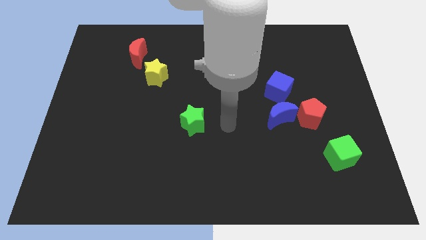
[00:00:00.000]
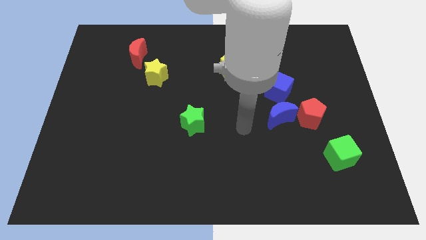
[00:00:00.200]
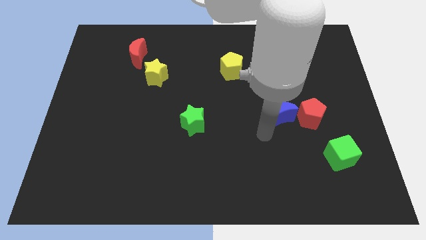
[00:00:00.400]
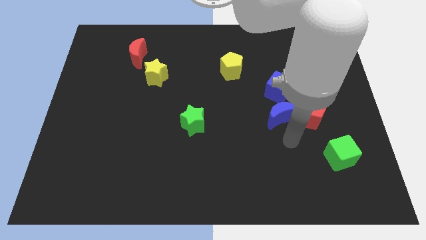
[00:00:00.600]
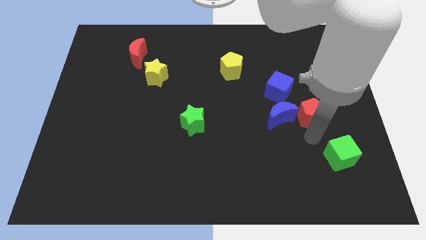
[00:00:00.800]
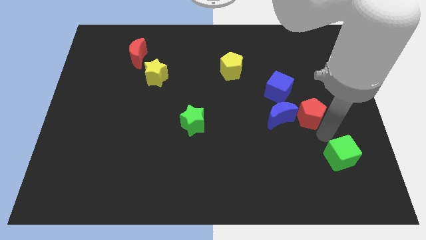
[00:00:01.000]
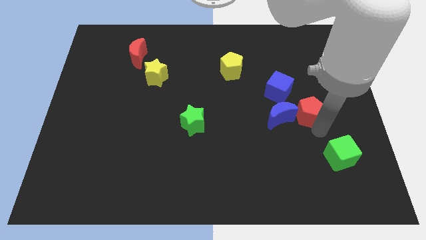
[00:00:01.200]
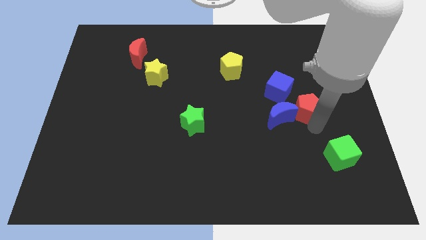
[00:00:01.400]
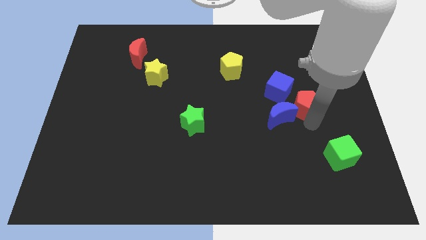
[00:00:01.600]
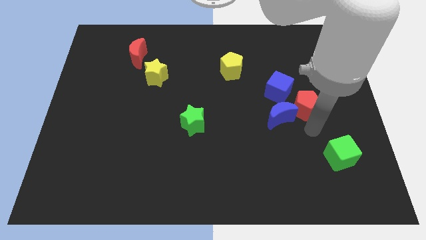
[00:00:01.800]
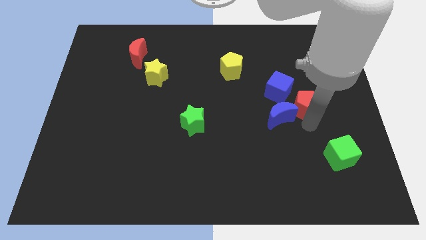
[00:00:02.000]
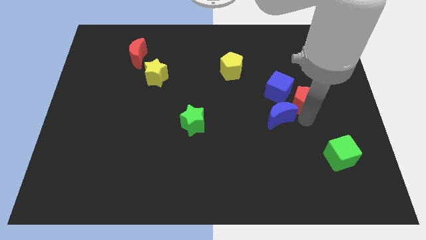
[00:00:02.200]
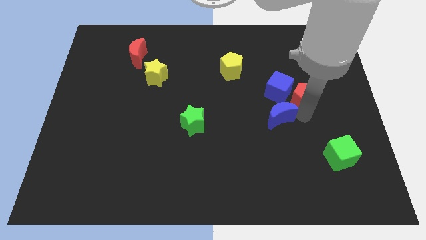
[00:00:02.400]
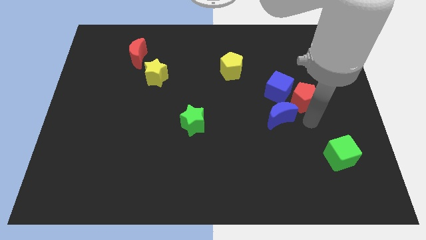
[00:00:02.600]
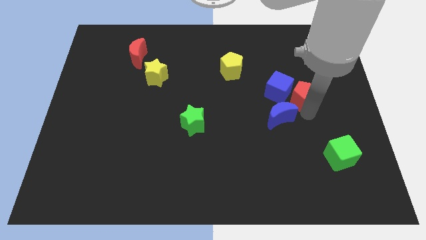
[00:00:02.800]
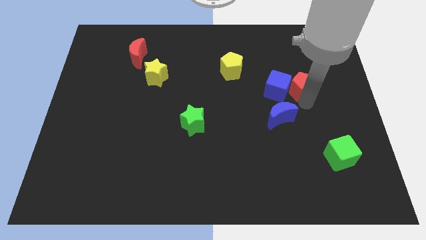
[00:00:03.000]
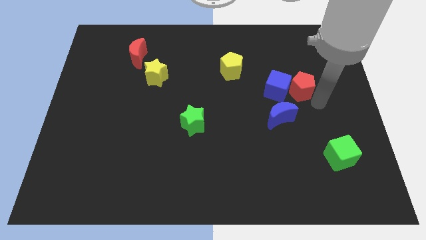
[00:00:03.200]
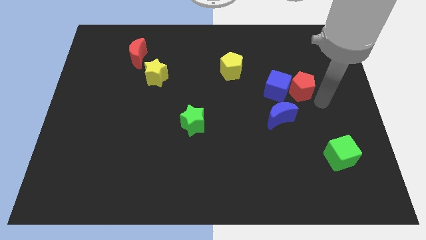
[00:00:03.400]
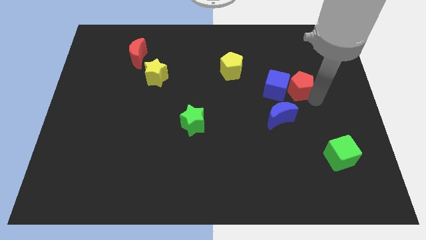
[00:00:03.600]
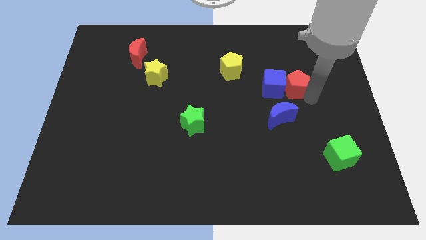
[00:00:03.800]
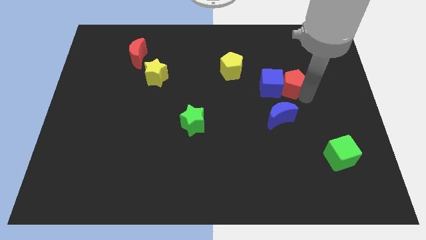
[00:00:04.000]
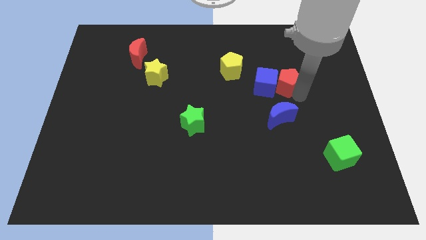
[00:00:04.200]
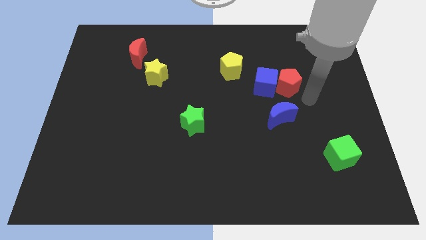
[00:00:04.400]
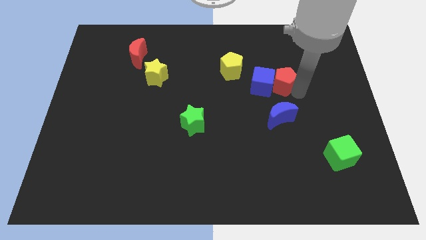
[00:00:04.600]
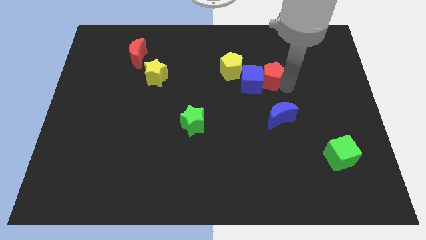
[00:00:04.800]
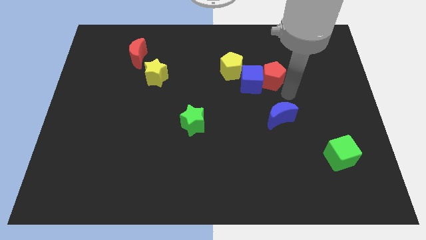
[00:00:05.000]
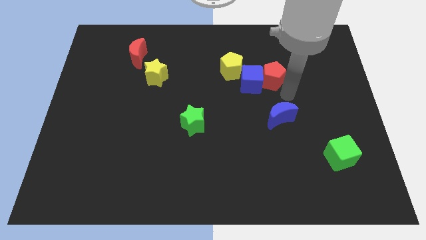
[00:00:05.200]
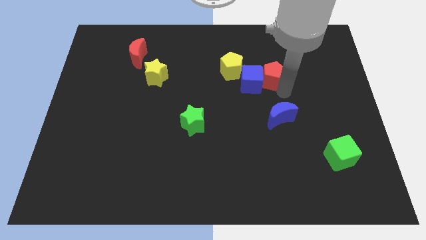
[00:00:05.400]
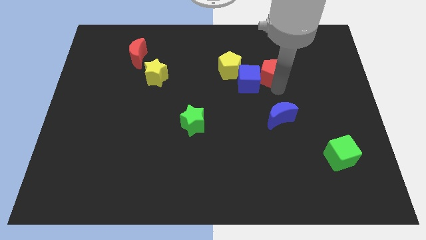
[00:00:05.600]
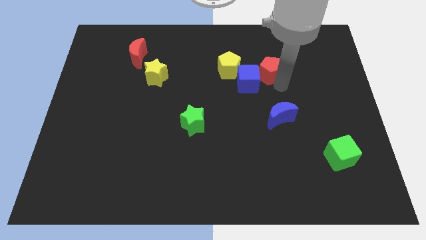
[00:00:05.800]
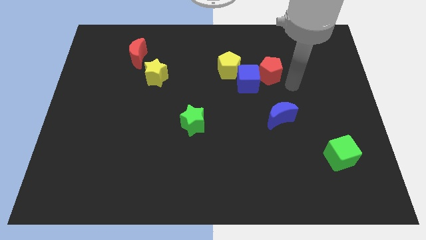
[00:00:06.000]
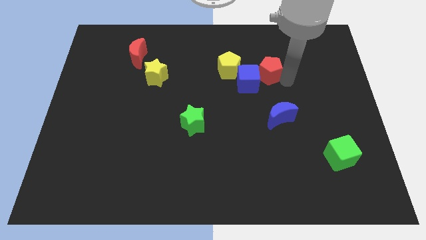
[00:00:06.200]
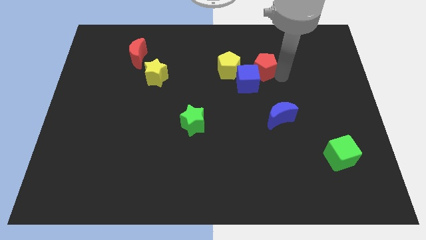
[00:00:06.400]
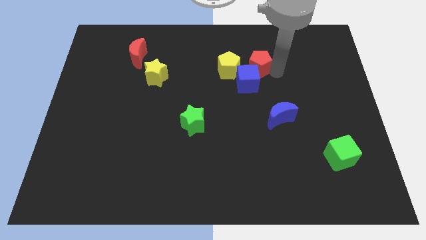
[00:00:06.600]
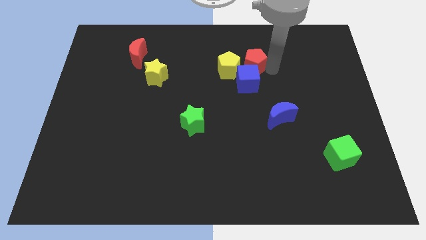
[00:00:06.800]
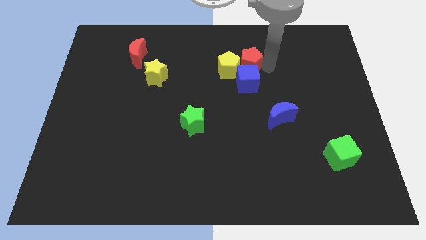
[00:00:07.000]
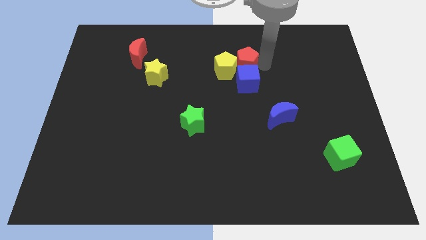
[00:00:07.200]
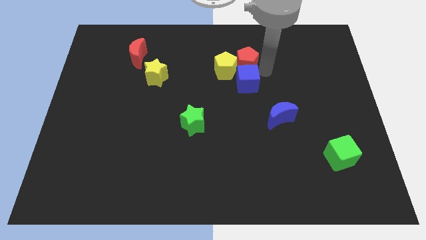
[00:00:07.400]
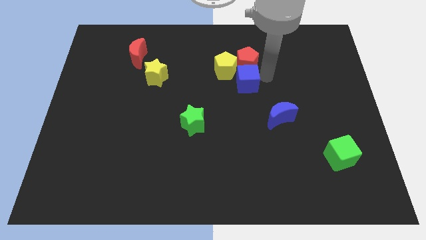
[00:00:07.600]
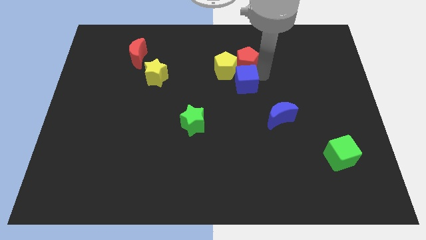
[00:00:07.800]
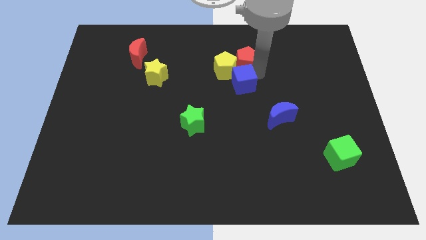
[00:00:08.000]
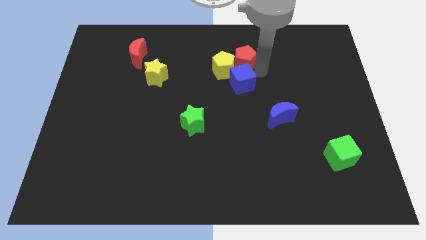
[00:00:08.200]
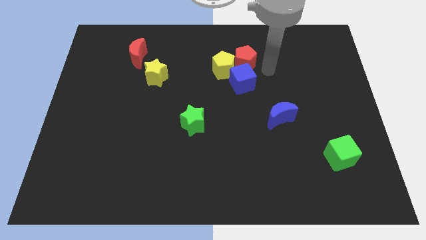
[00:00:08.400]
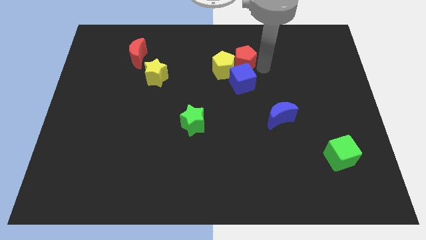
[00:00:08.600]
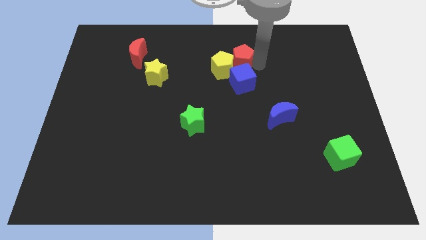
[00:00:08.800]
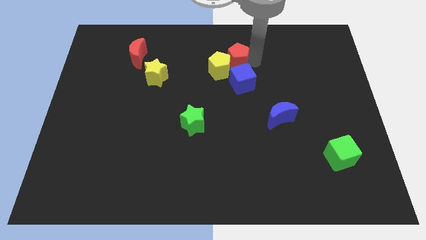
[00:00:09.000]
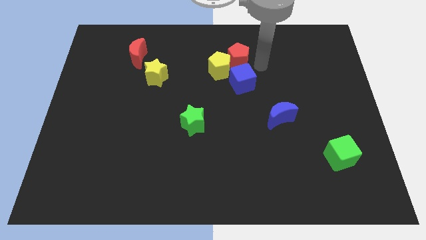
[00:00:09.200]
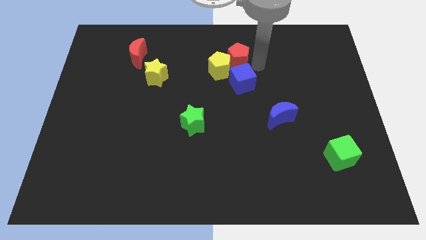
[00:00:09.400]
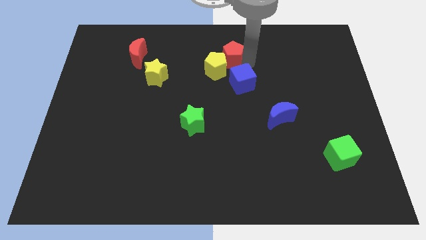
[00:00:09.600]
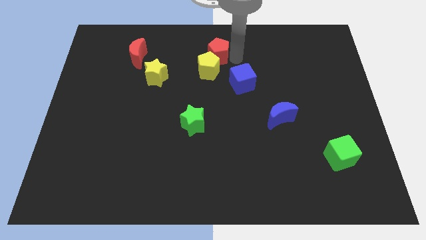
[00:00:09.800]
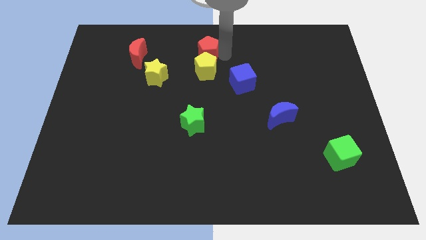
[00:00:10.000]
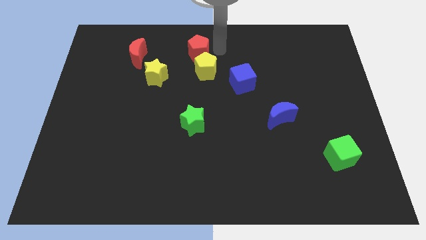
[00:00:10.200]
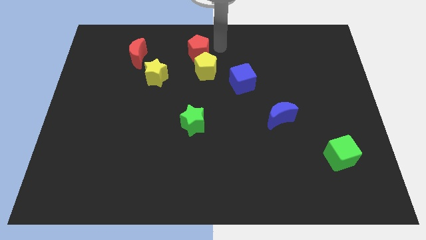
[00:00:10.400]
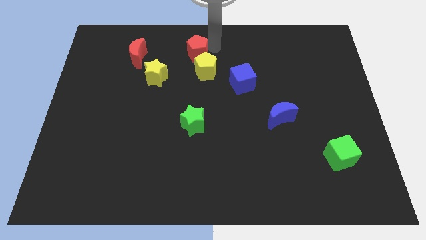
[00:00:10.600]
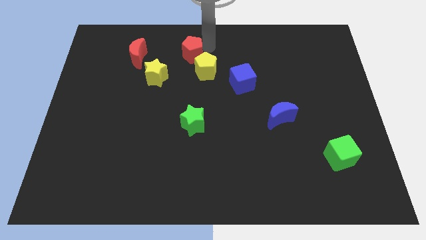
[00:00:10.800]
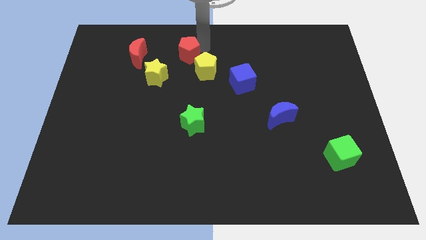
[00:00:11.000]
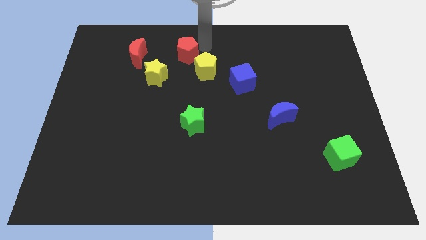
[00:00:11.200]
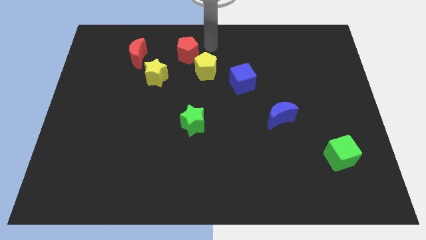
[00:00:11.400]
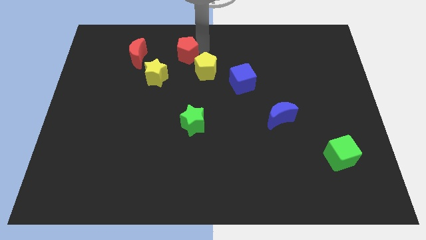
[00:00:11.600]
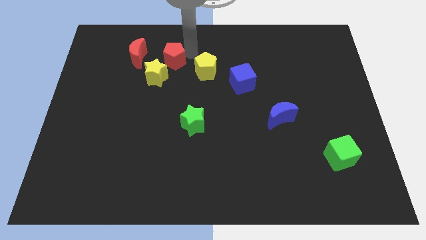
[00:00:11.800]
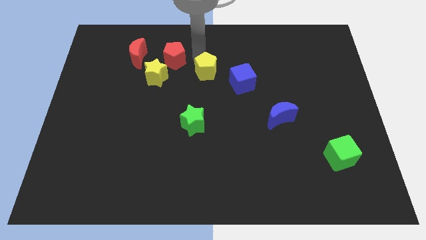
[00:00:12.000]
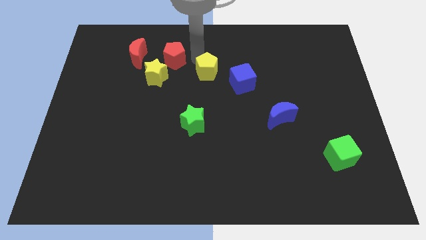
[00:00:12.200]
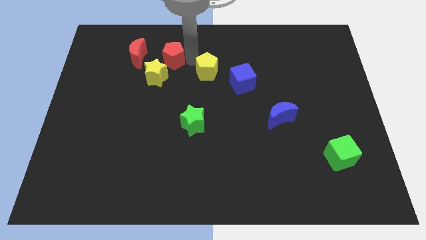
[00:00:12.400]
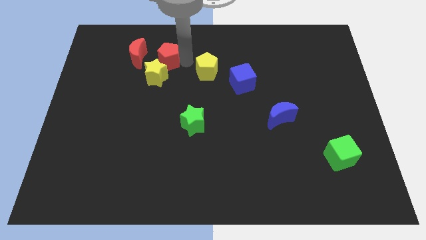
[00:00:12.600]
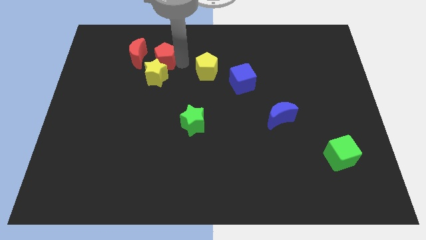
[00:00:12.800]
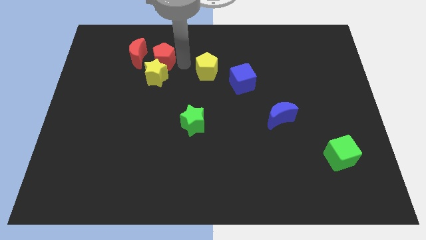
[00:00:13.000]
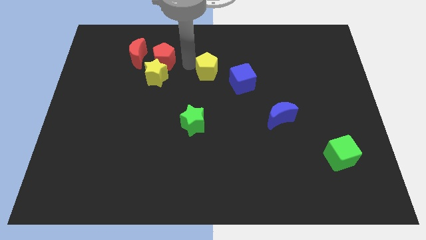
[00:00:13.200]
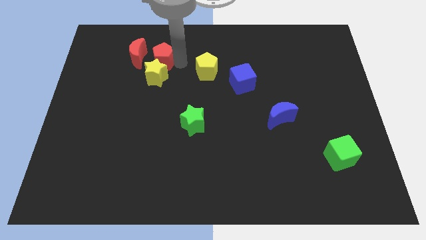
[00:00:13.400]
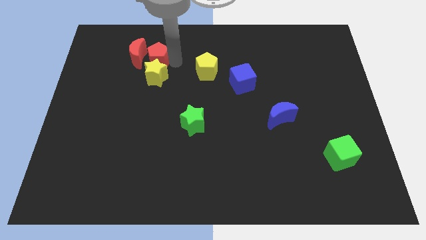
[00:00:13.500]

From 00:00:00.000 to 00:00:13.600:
slide the red pentagon towards the red moon
